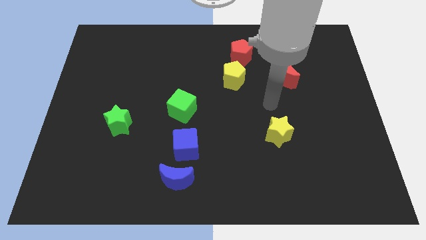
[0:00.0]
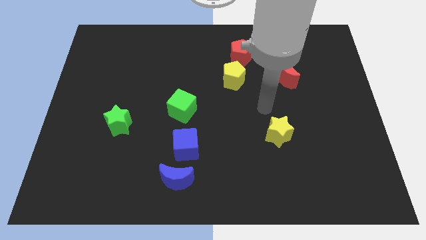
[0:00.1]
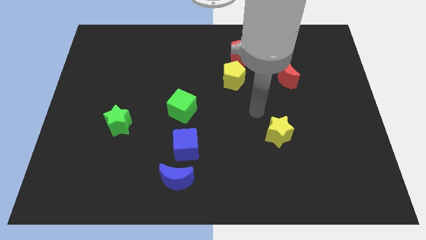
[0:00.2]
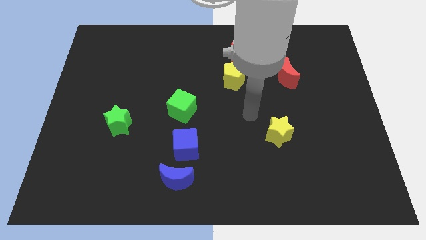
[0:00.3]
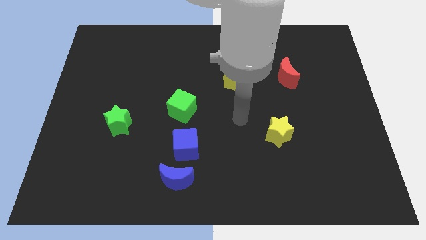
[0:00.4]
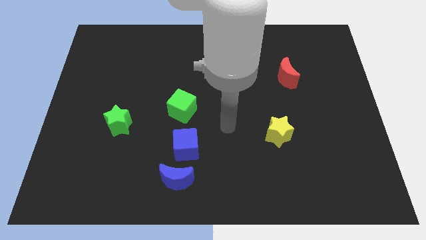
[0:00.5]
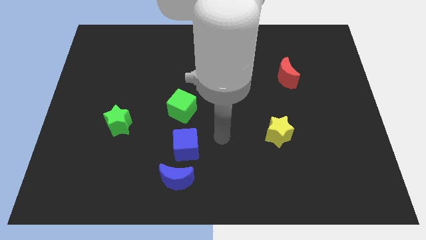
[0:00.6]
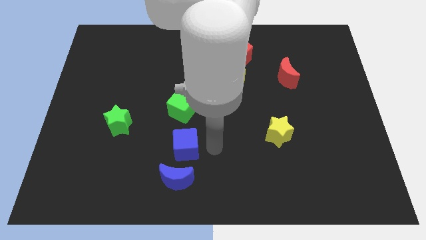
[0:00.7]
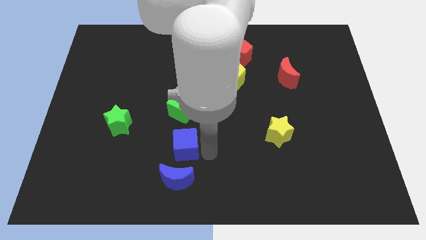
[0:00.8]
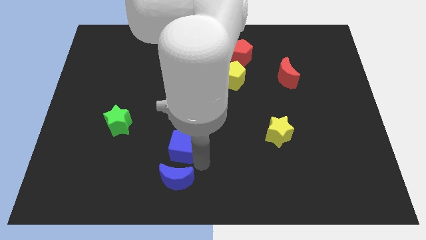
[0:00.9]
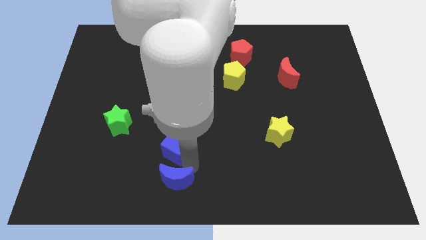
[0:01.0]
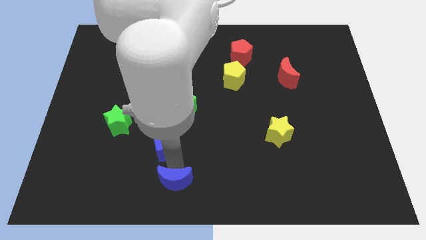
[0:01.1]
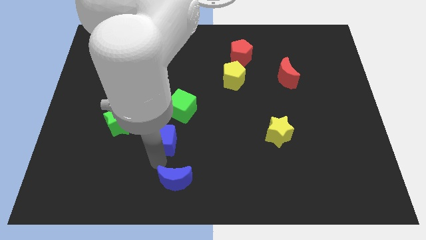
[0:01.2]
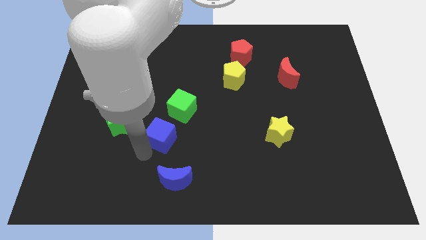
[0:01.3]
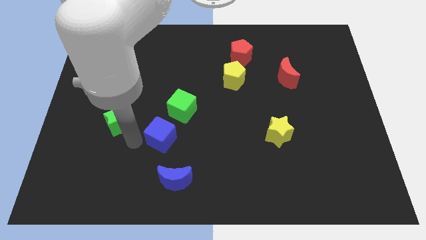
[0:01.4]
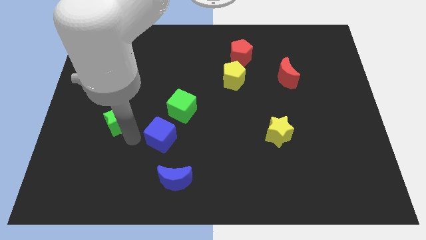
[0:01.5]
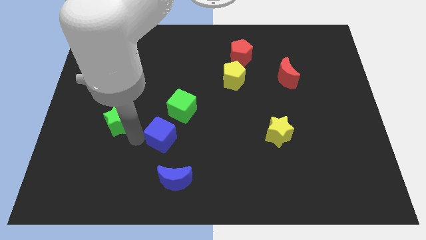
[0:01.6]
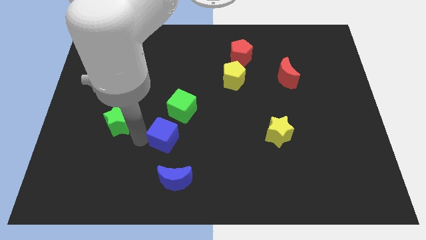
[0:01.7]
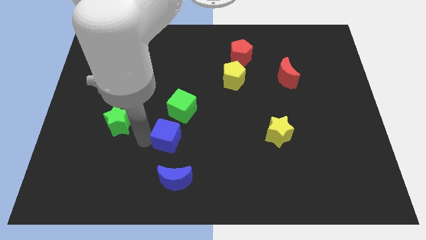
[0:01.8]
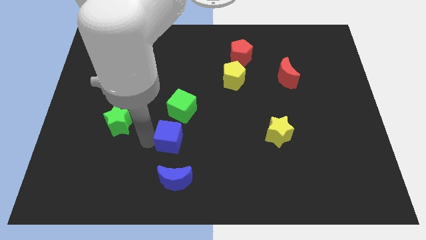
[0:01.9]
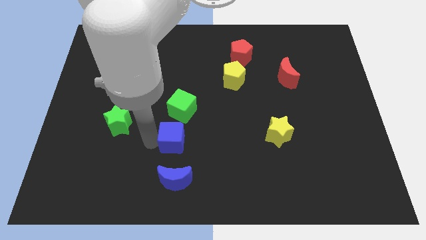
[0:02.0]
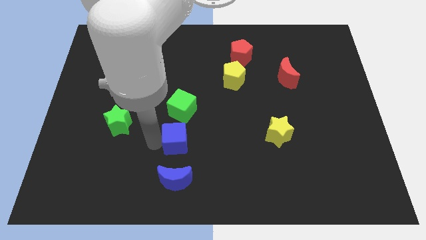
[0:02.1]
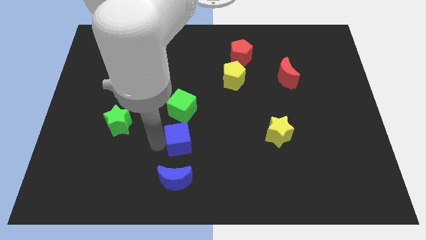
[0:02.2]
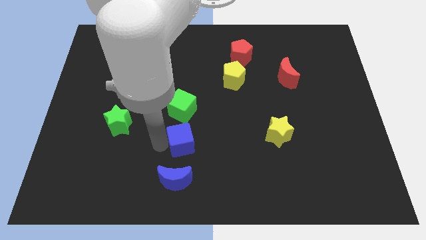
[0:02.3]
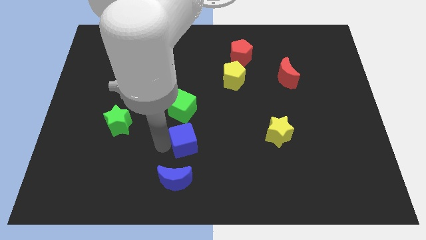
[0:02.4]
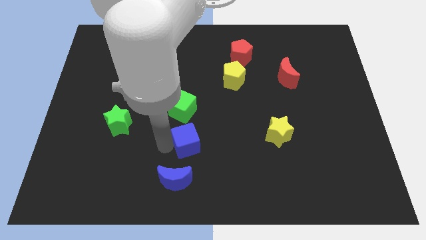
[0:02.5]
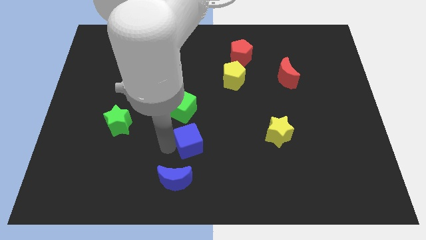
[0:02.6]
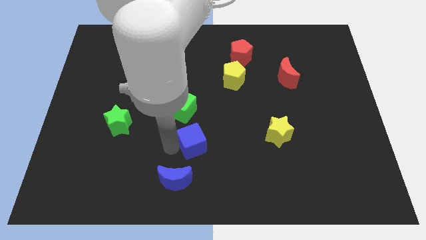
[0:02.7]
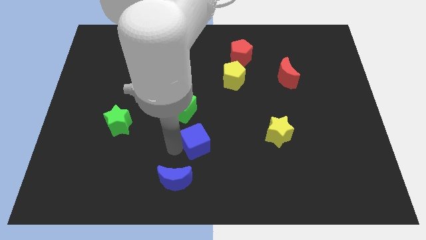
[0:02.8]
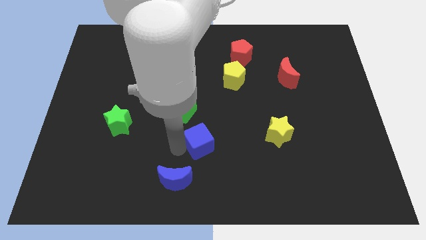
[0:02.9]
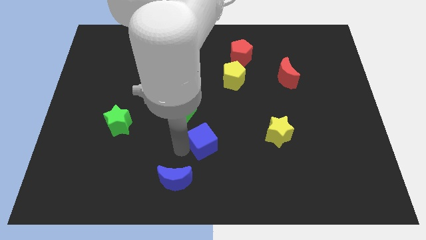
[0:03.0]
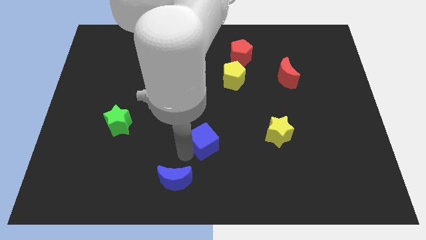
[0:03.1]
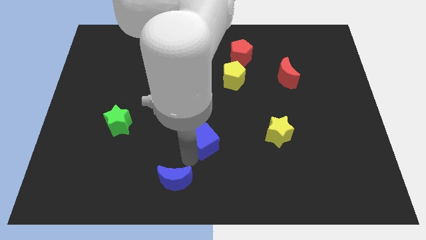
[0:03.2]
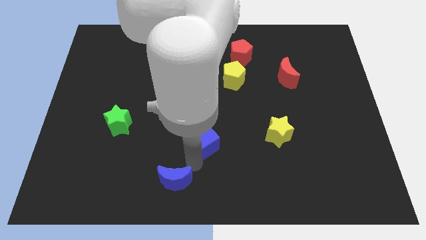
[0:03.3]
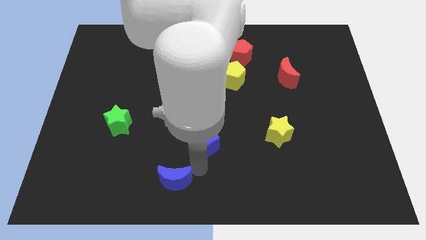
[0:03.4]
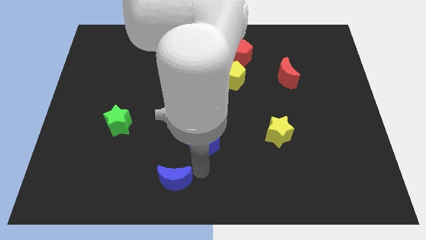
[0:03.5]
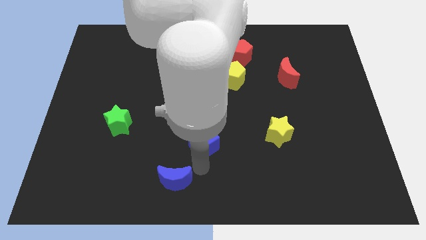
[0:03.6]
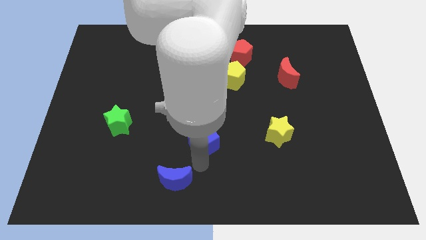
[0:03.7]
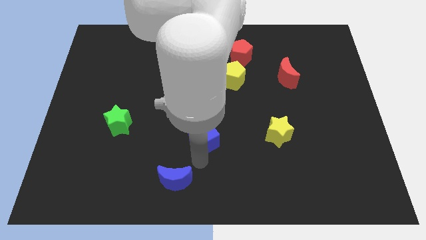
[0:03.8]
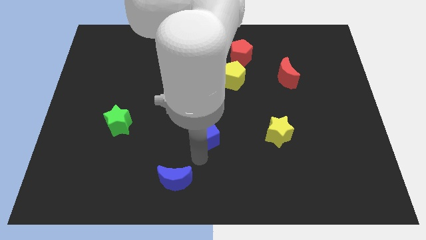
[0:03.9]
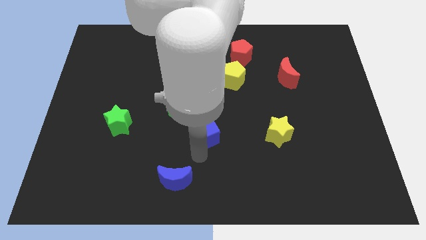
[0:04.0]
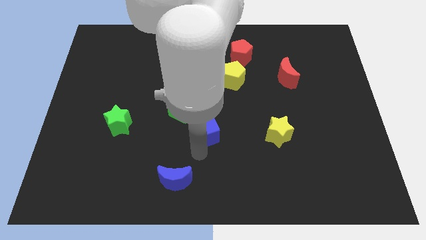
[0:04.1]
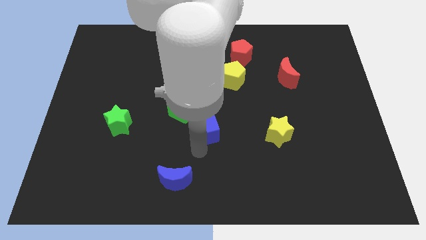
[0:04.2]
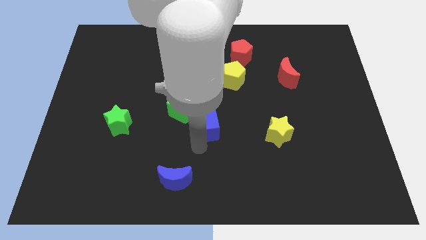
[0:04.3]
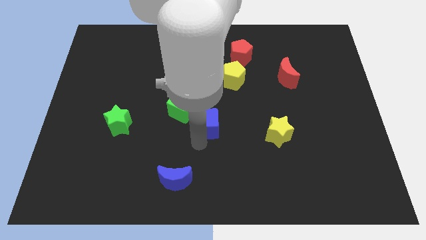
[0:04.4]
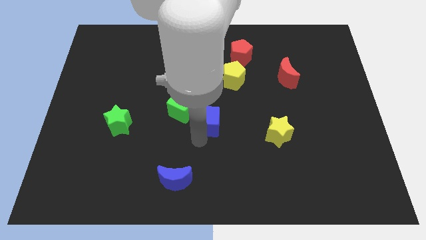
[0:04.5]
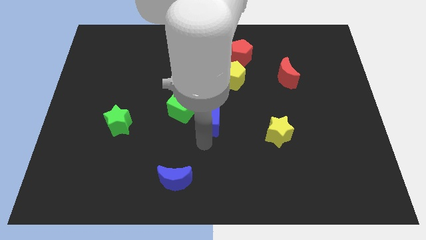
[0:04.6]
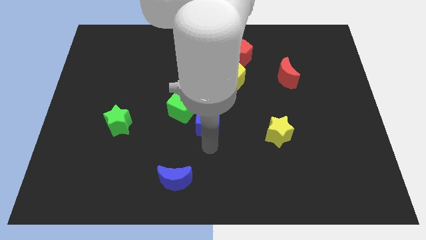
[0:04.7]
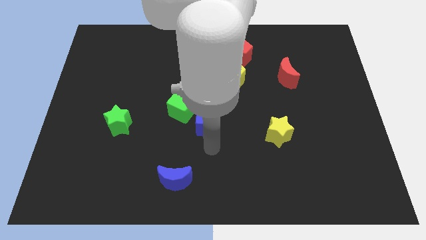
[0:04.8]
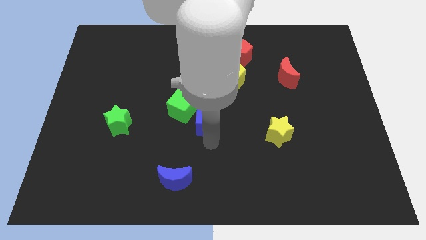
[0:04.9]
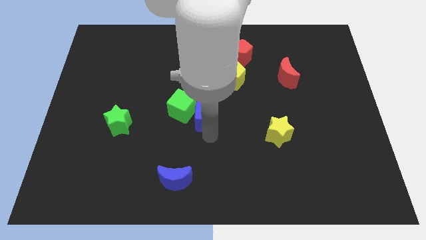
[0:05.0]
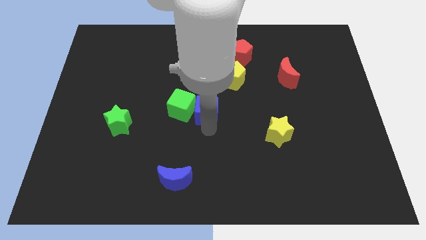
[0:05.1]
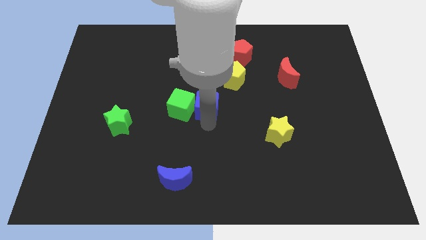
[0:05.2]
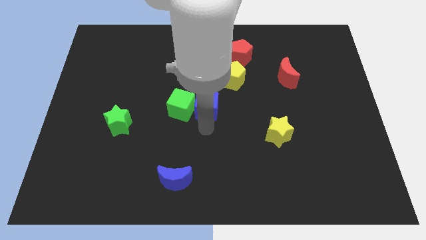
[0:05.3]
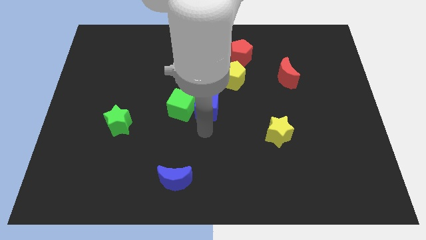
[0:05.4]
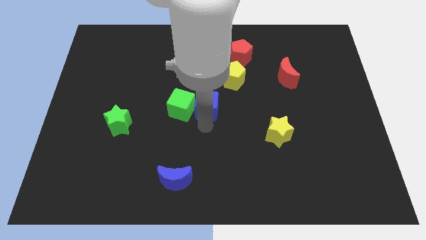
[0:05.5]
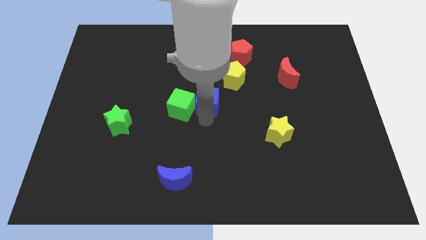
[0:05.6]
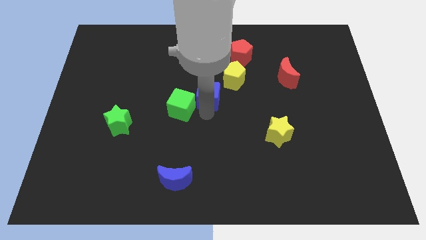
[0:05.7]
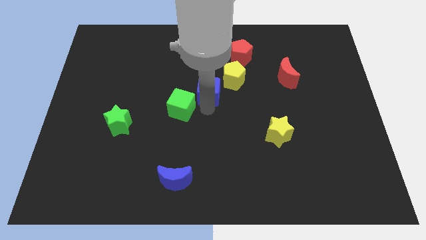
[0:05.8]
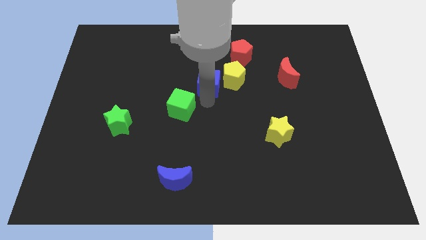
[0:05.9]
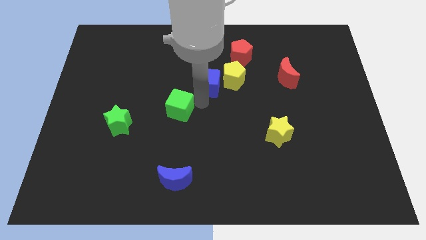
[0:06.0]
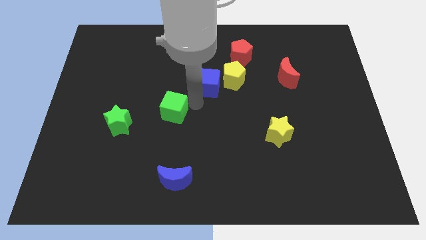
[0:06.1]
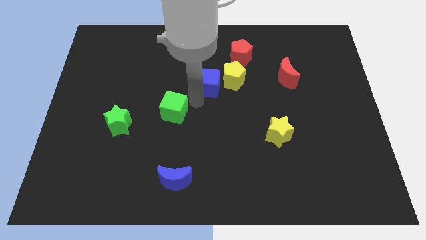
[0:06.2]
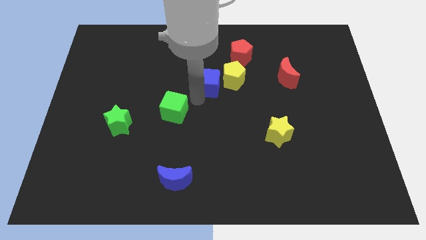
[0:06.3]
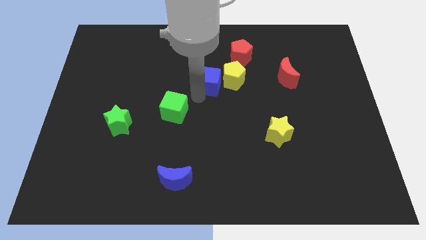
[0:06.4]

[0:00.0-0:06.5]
put the blue cube diagonally down and to the left of the red pentagon

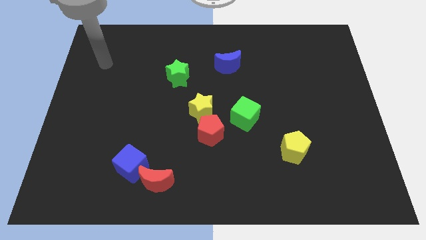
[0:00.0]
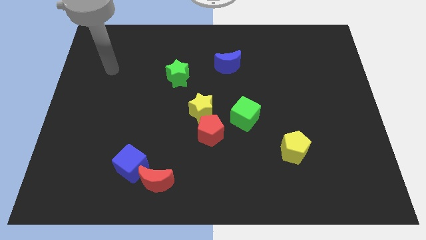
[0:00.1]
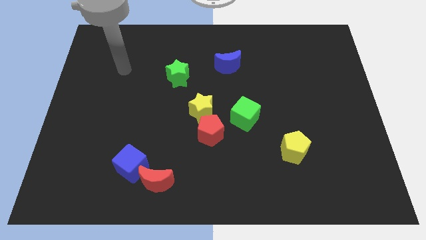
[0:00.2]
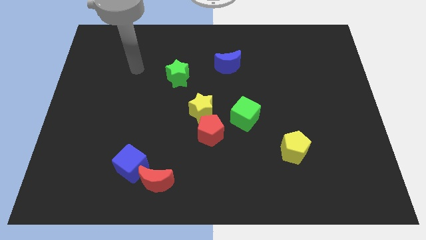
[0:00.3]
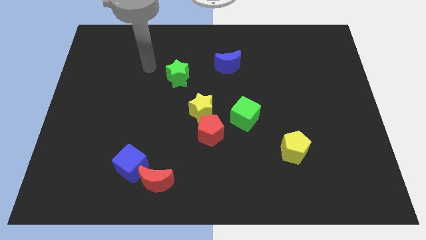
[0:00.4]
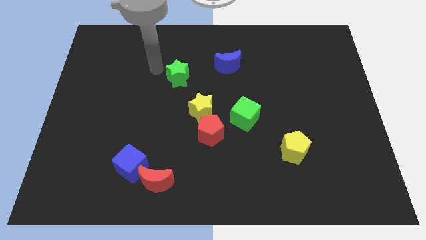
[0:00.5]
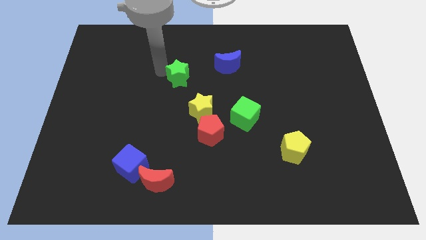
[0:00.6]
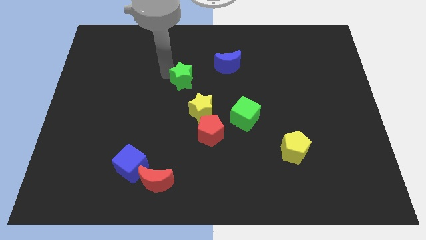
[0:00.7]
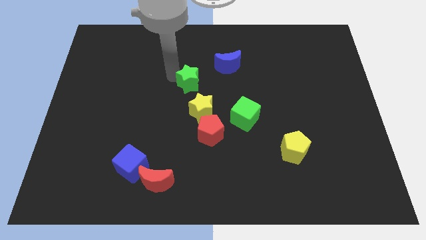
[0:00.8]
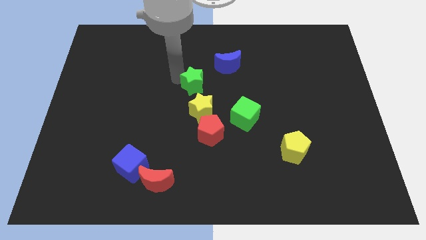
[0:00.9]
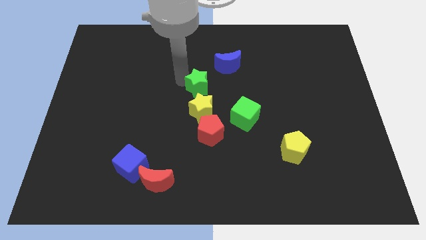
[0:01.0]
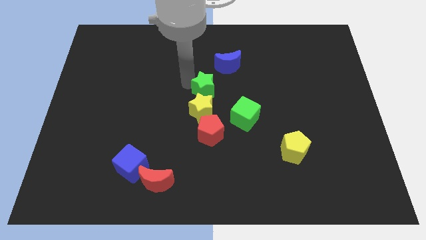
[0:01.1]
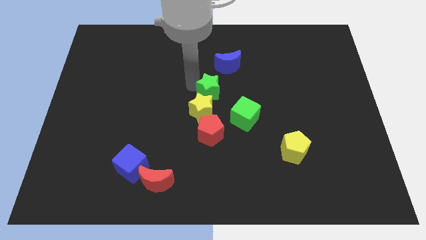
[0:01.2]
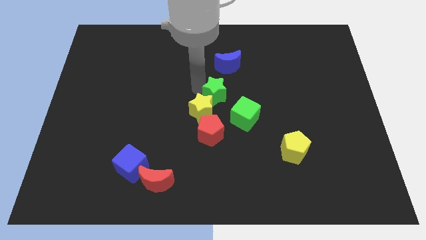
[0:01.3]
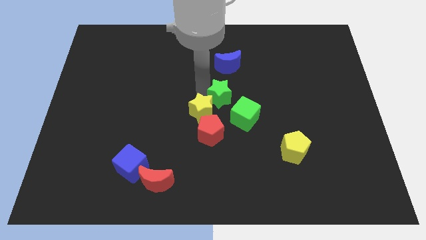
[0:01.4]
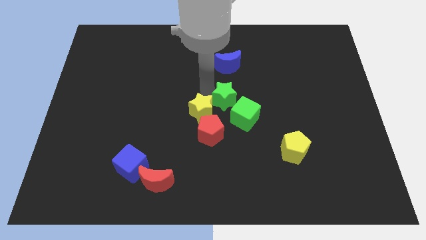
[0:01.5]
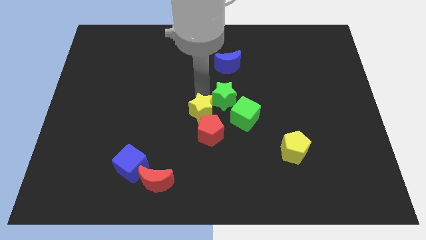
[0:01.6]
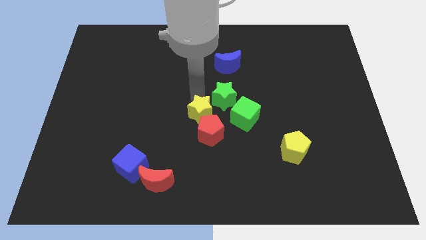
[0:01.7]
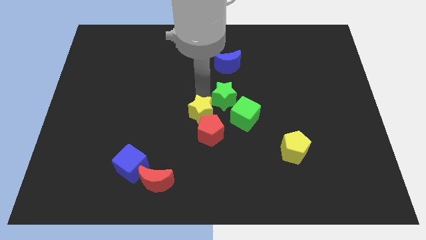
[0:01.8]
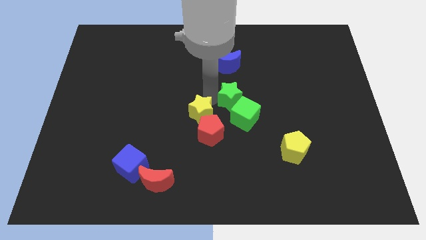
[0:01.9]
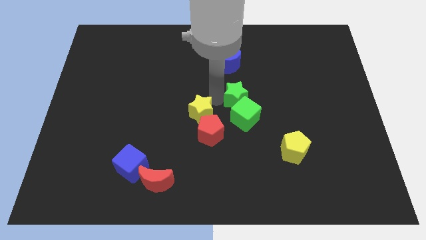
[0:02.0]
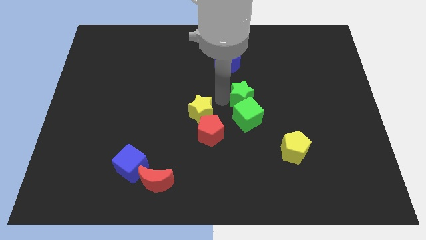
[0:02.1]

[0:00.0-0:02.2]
put the green star to the top right of the green cube
